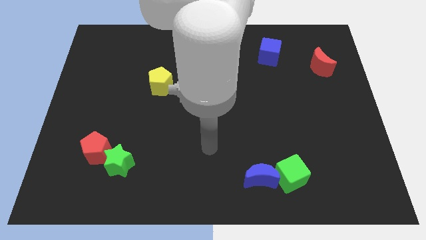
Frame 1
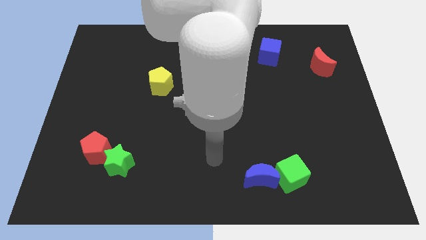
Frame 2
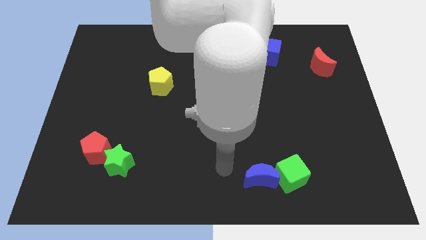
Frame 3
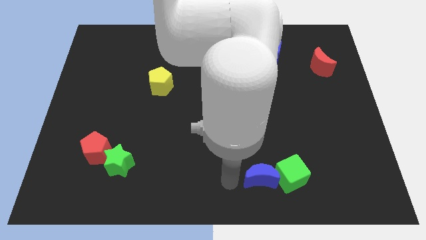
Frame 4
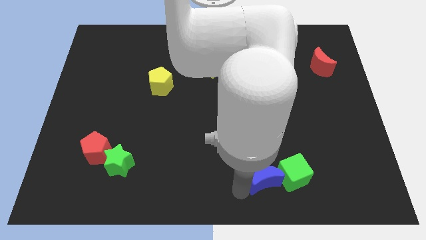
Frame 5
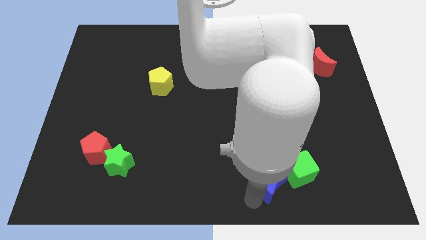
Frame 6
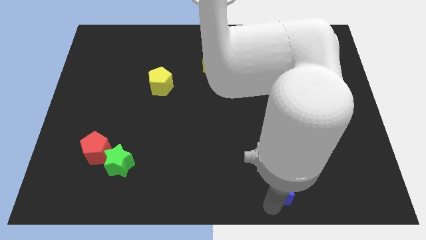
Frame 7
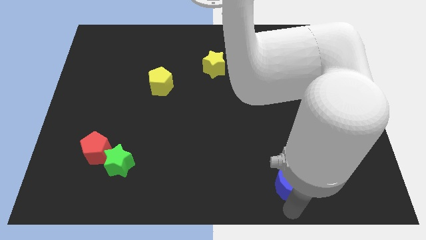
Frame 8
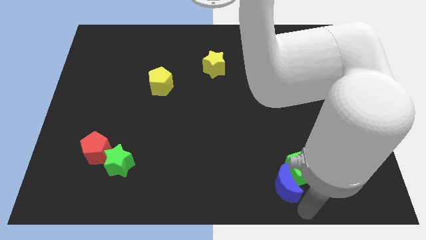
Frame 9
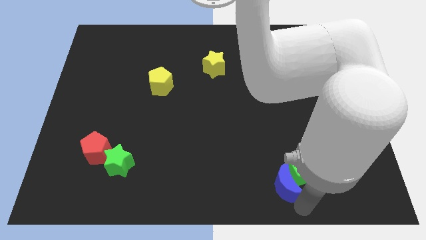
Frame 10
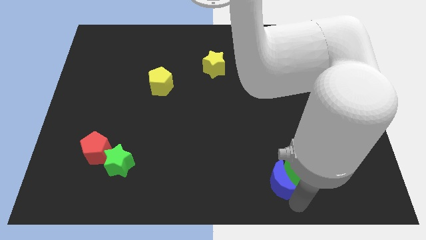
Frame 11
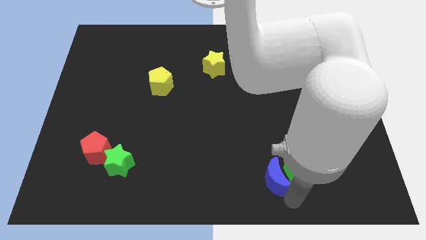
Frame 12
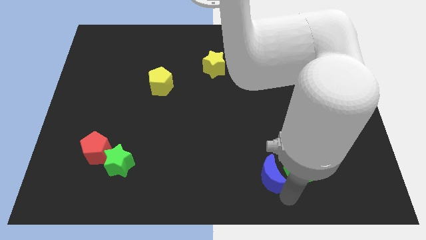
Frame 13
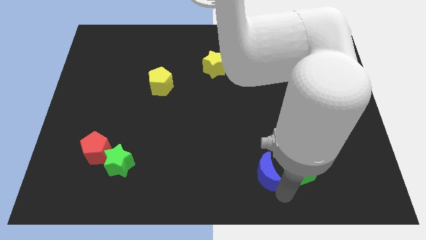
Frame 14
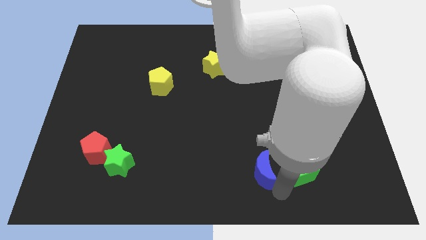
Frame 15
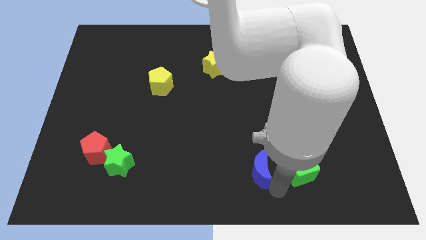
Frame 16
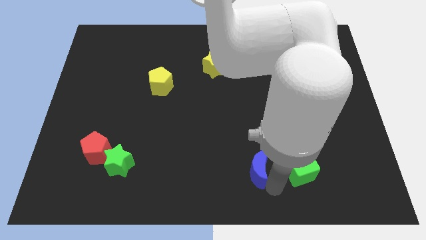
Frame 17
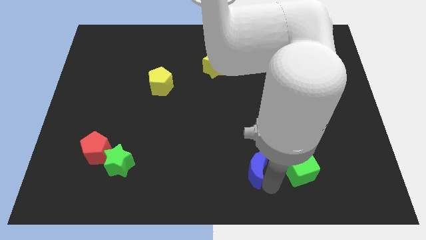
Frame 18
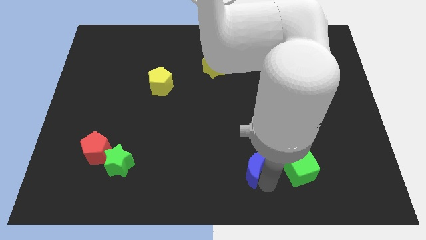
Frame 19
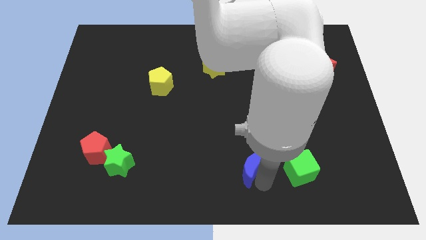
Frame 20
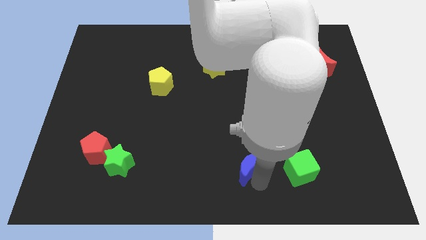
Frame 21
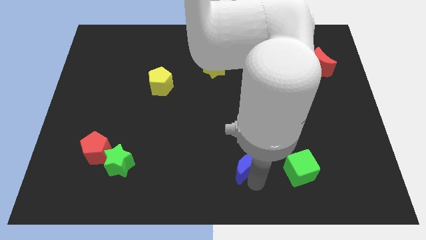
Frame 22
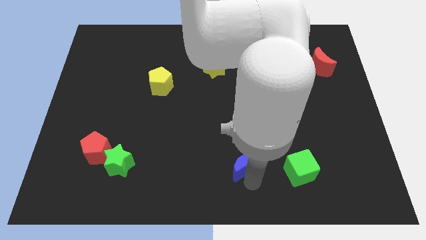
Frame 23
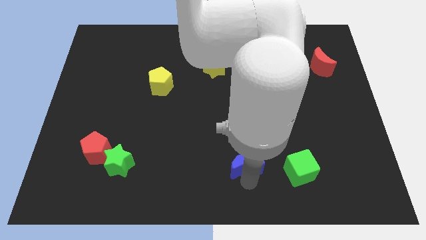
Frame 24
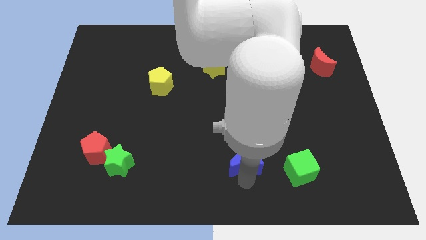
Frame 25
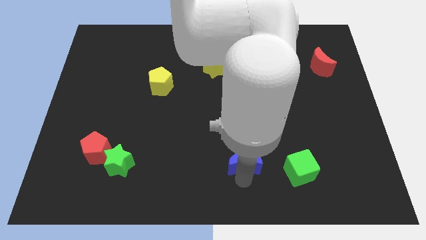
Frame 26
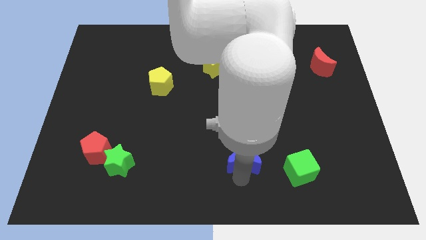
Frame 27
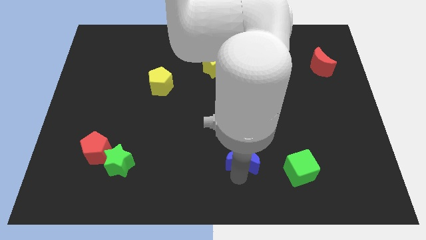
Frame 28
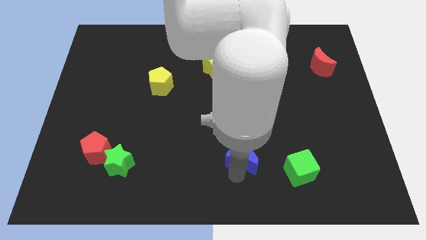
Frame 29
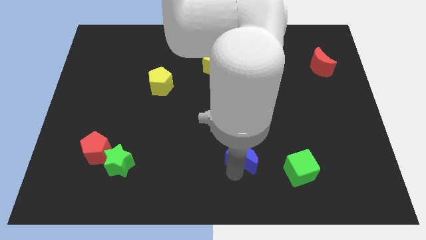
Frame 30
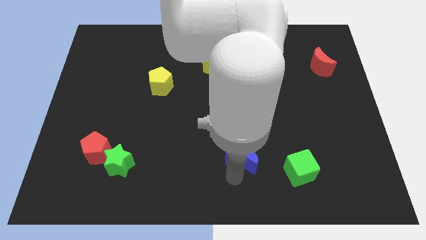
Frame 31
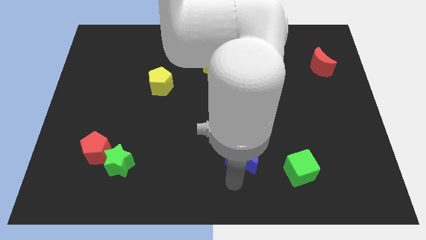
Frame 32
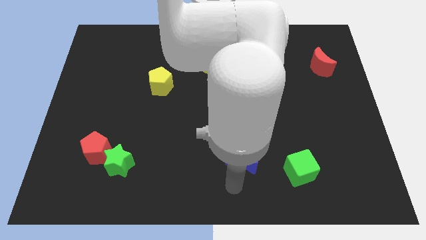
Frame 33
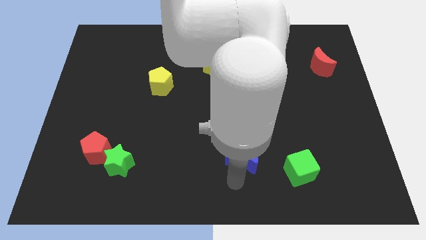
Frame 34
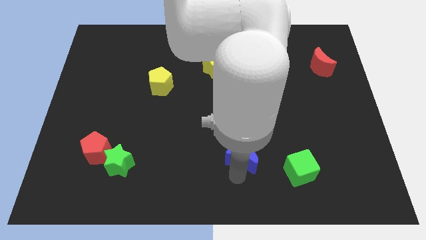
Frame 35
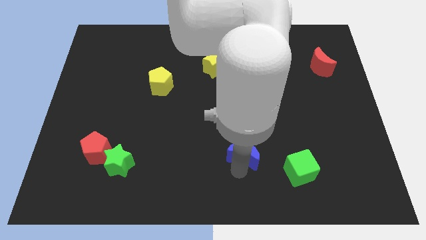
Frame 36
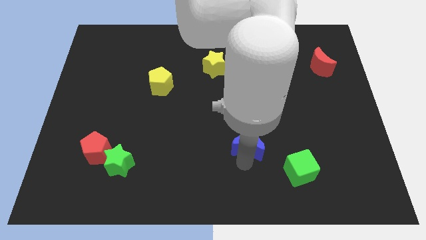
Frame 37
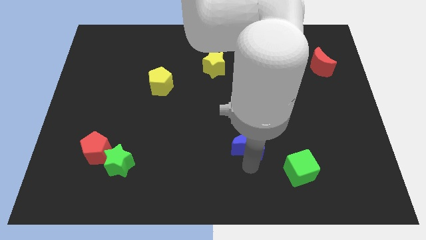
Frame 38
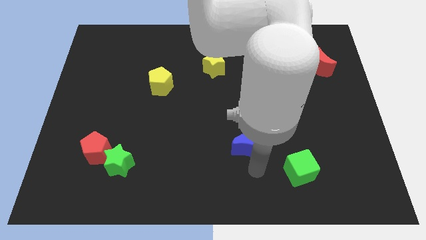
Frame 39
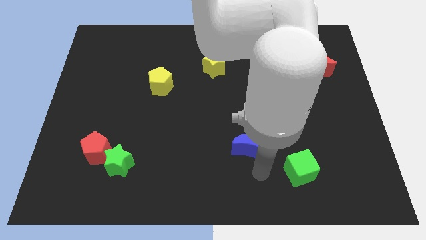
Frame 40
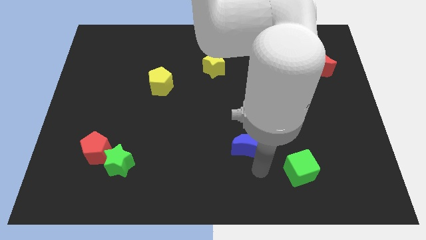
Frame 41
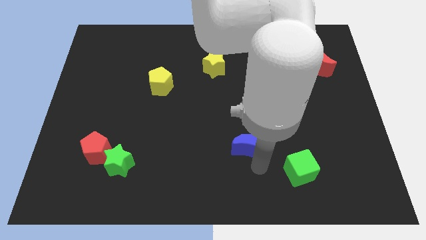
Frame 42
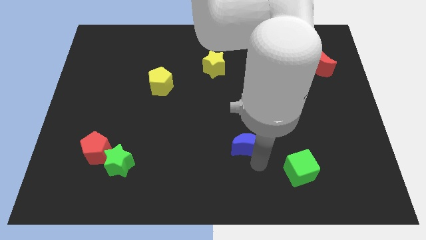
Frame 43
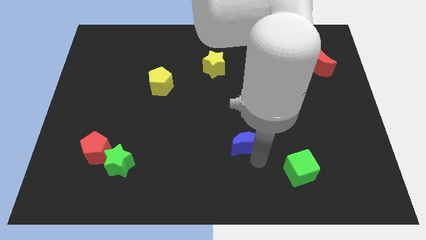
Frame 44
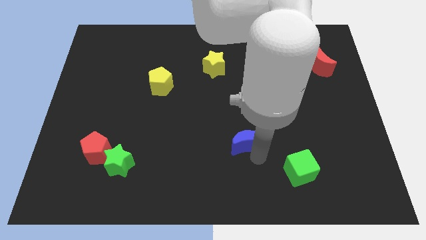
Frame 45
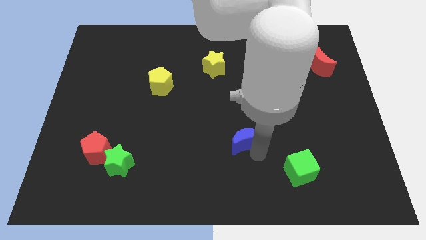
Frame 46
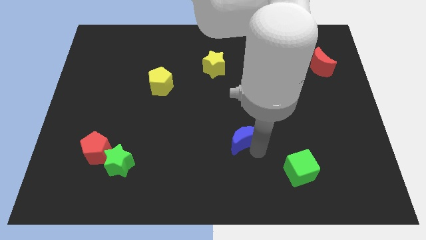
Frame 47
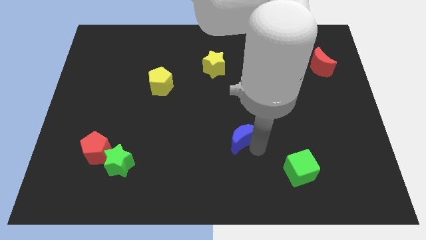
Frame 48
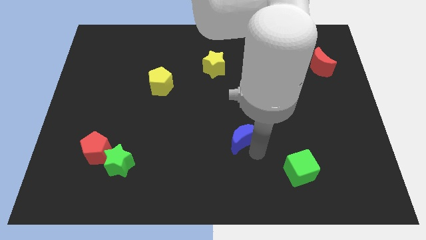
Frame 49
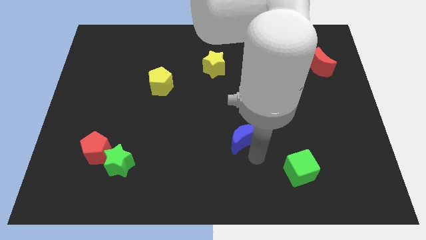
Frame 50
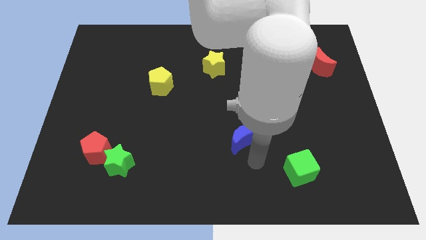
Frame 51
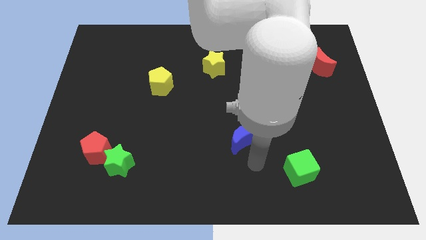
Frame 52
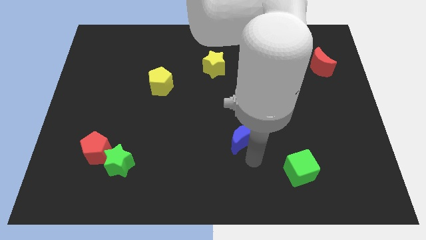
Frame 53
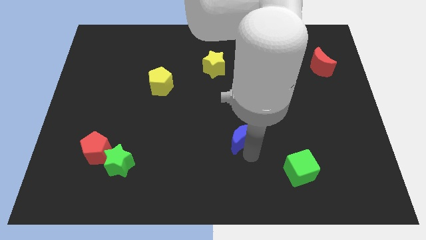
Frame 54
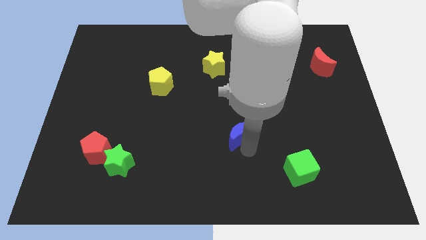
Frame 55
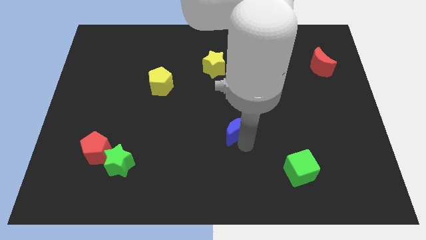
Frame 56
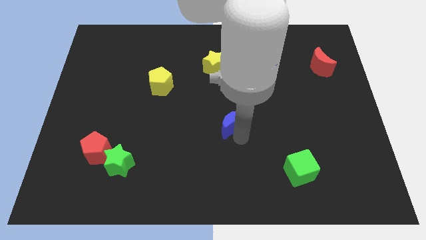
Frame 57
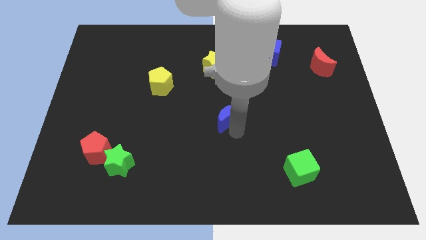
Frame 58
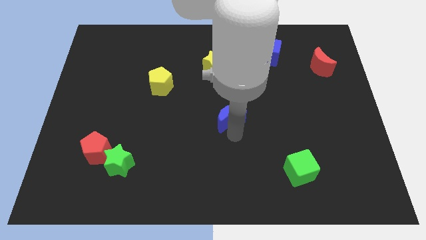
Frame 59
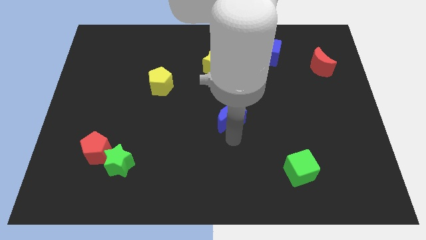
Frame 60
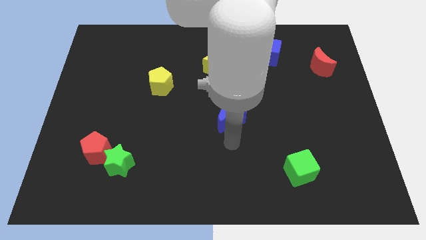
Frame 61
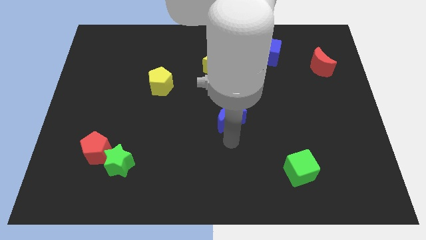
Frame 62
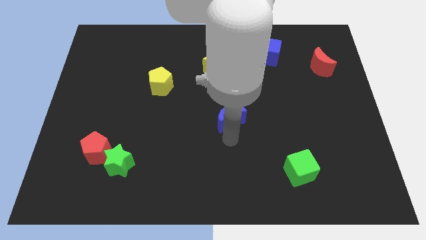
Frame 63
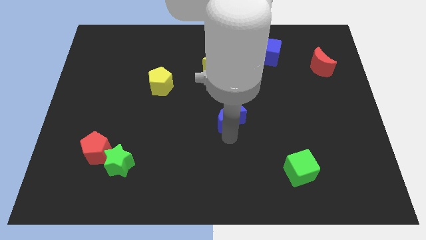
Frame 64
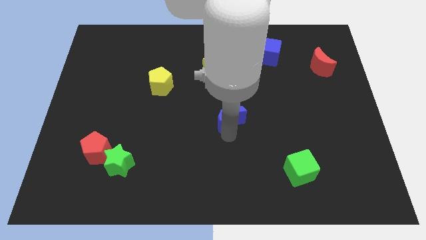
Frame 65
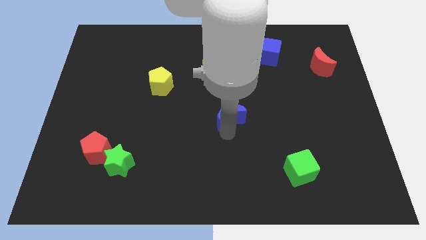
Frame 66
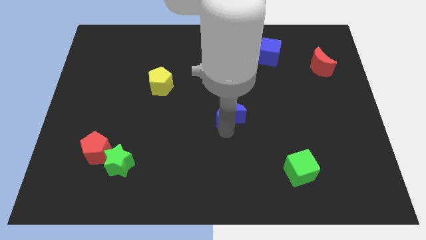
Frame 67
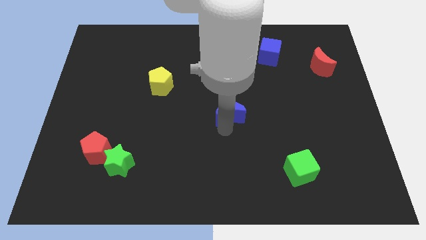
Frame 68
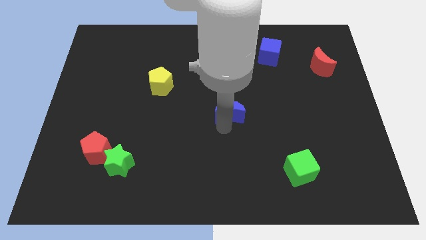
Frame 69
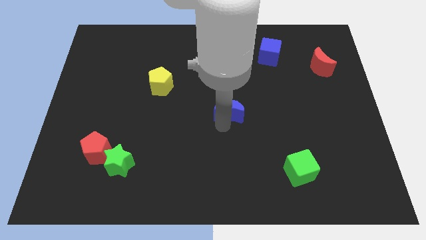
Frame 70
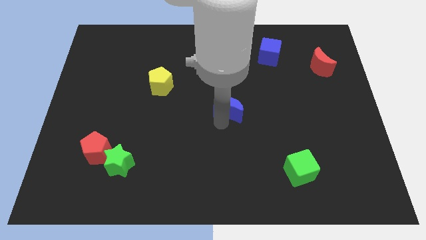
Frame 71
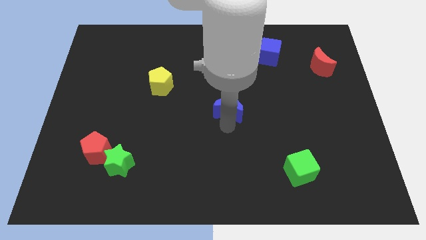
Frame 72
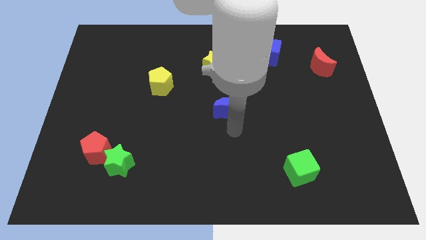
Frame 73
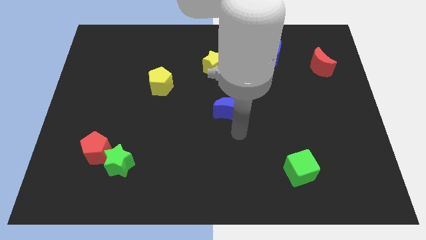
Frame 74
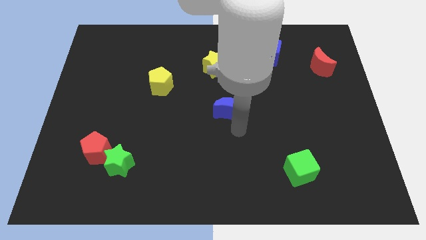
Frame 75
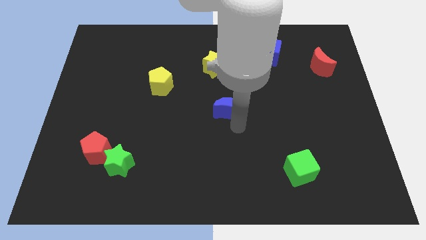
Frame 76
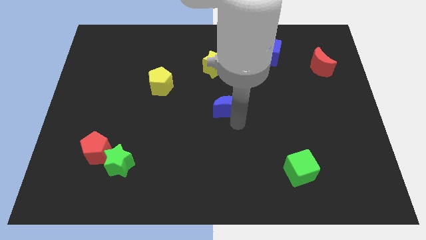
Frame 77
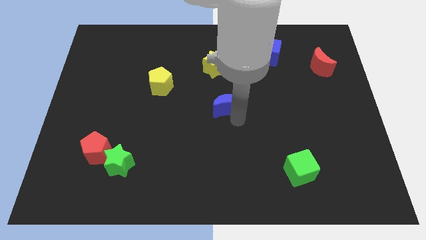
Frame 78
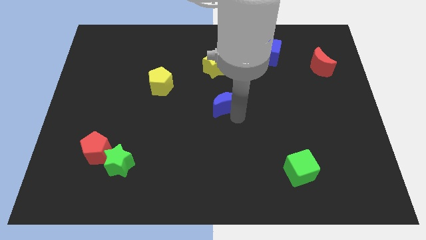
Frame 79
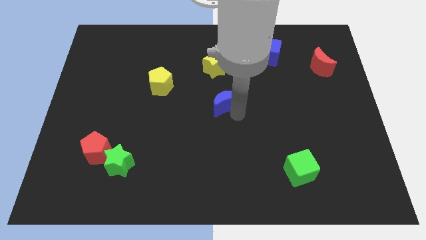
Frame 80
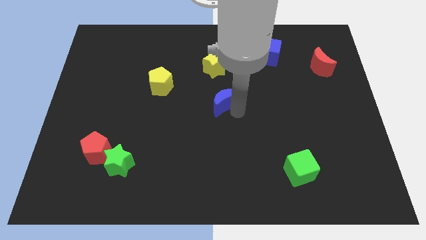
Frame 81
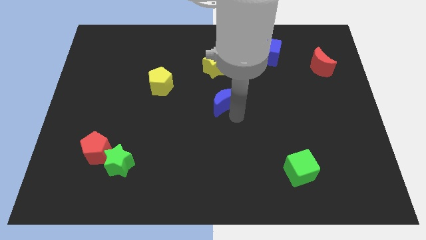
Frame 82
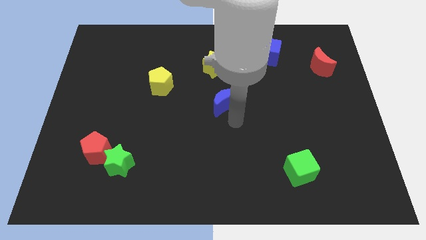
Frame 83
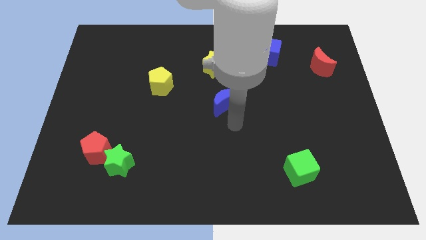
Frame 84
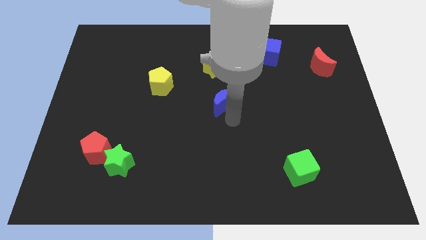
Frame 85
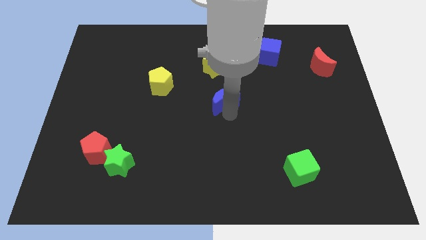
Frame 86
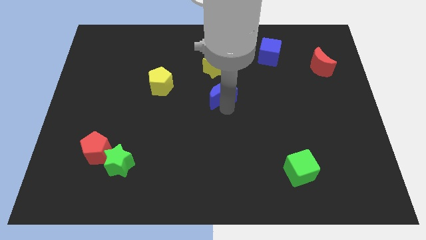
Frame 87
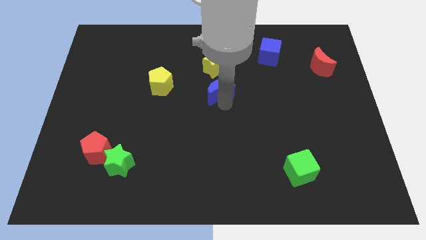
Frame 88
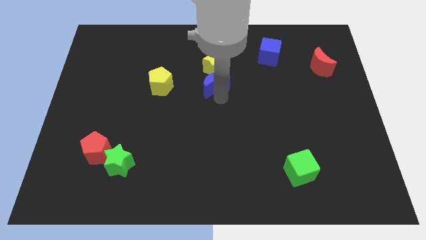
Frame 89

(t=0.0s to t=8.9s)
slide the blue moon next to the yellow star
